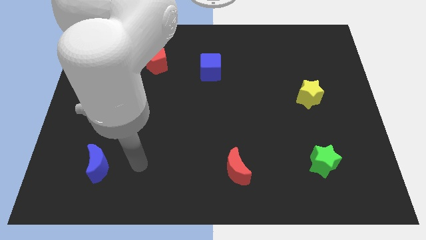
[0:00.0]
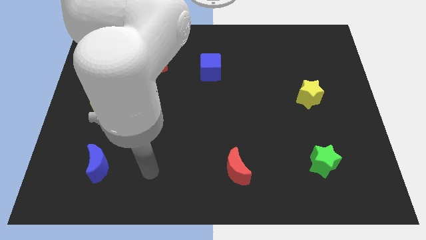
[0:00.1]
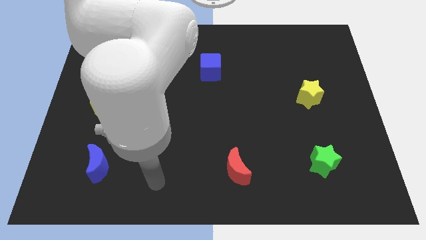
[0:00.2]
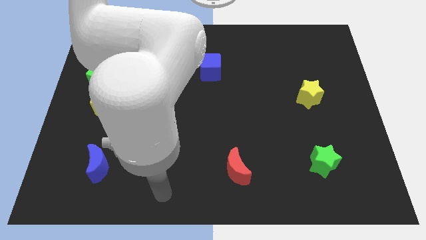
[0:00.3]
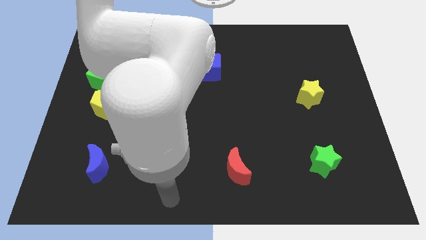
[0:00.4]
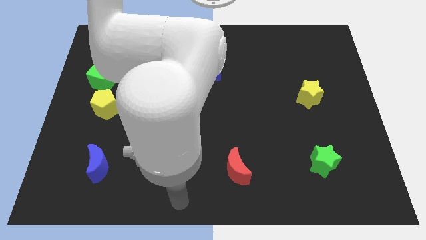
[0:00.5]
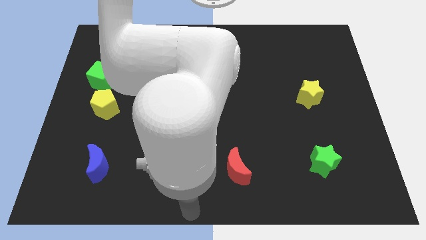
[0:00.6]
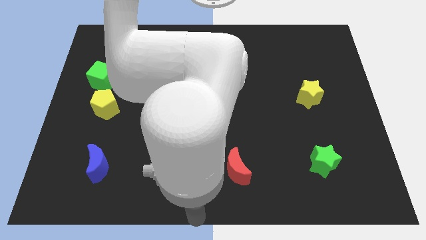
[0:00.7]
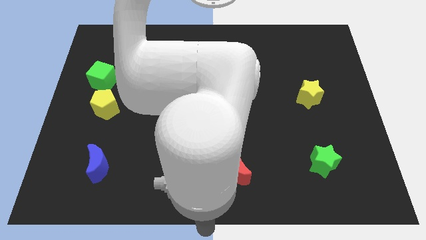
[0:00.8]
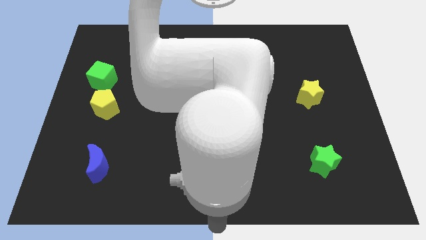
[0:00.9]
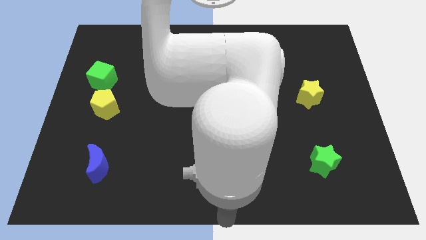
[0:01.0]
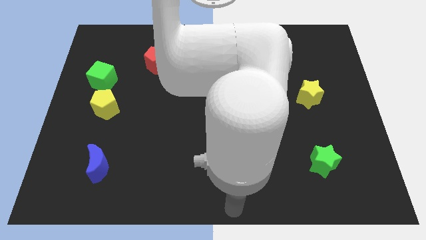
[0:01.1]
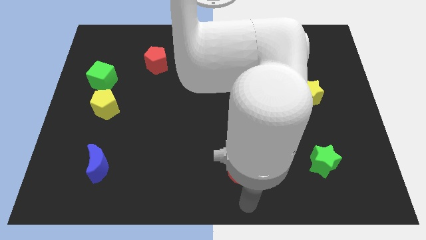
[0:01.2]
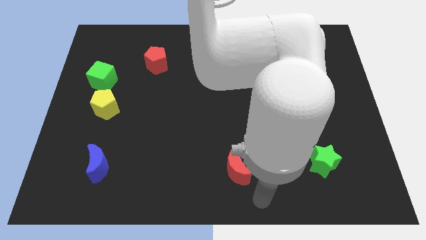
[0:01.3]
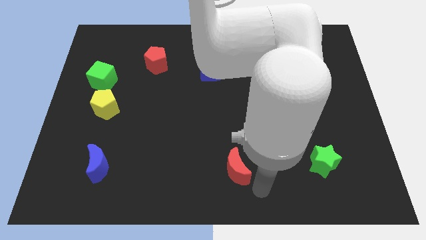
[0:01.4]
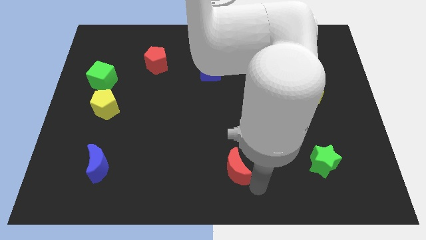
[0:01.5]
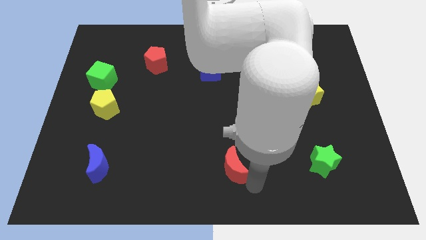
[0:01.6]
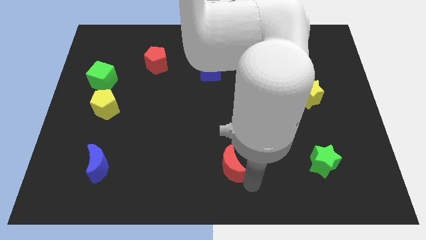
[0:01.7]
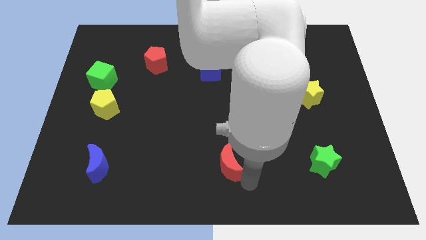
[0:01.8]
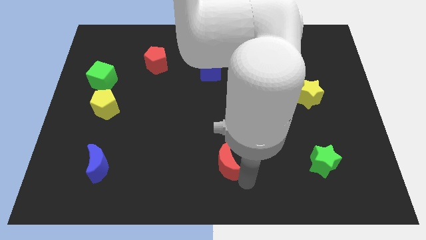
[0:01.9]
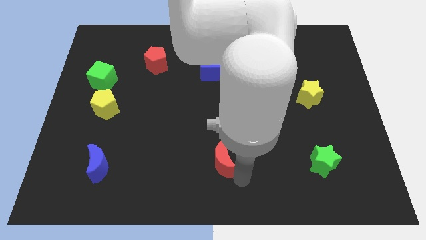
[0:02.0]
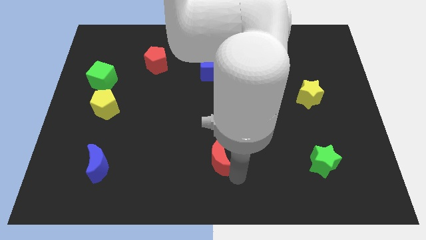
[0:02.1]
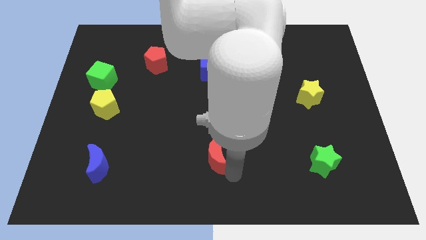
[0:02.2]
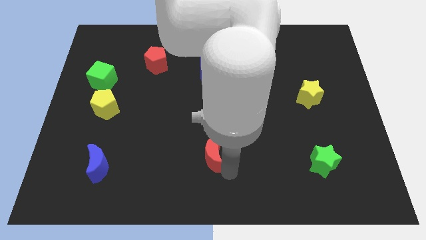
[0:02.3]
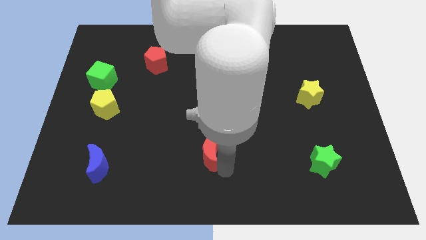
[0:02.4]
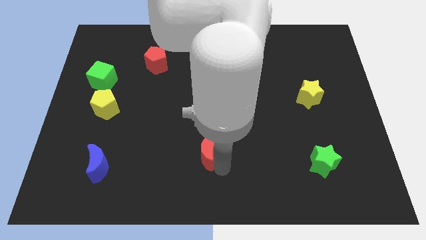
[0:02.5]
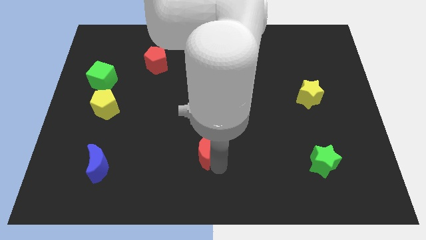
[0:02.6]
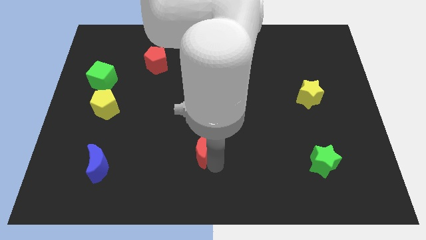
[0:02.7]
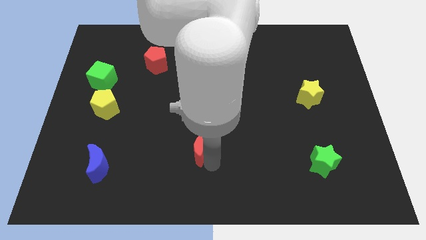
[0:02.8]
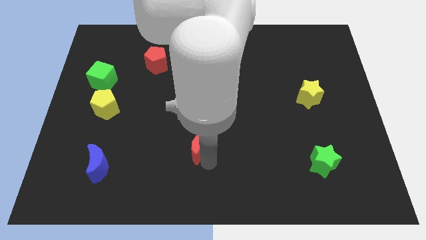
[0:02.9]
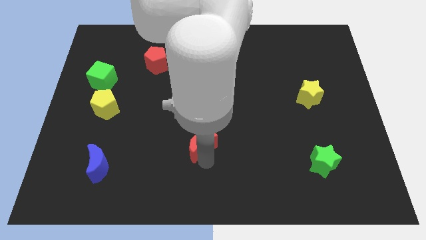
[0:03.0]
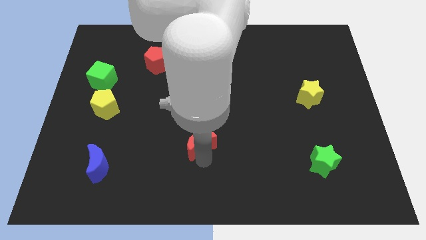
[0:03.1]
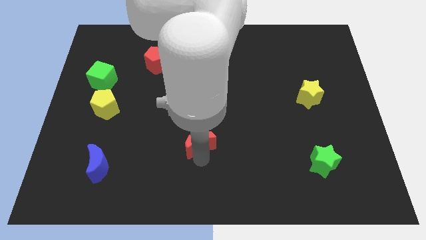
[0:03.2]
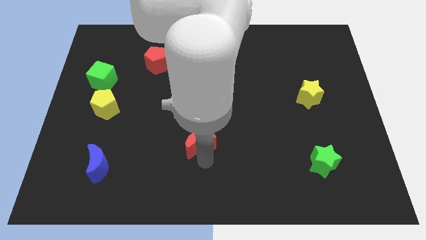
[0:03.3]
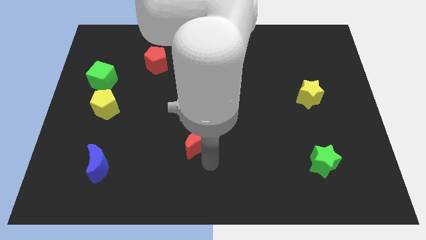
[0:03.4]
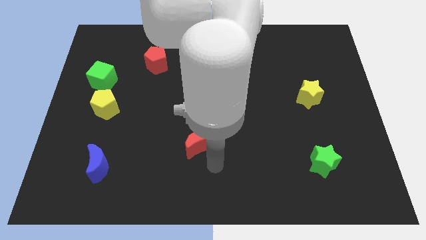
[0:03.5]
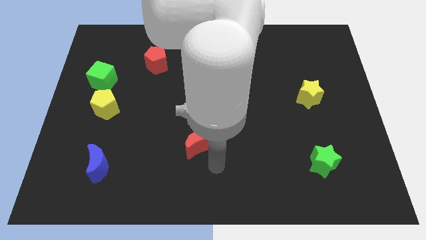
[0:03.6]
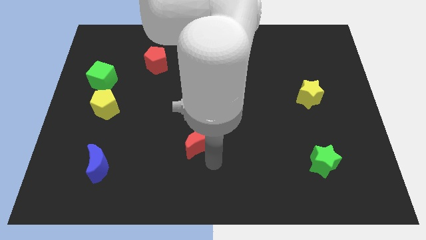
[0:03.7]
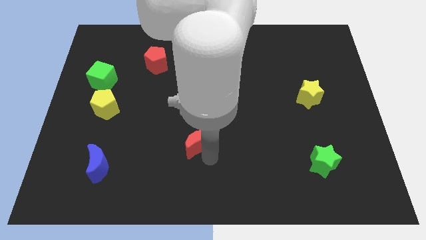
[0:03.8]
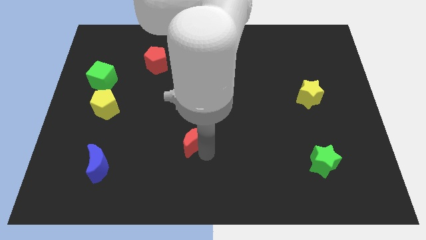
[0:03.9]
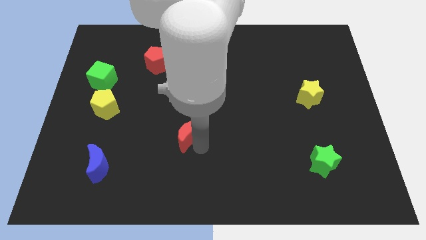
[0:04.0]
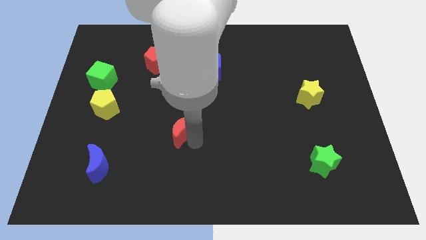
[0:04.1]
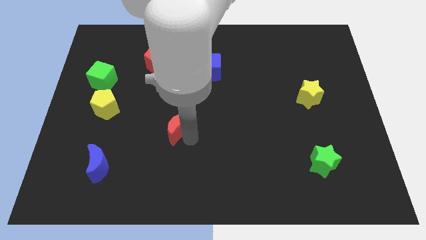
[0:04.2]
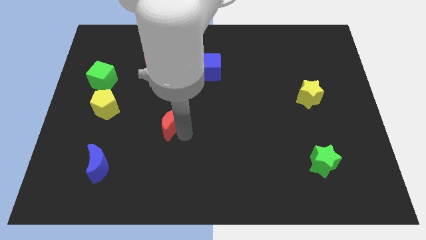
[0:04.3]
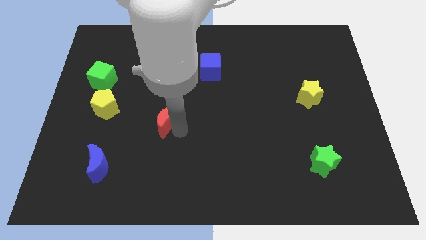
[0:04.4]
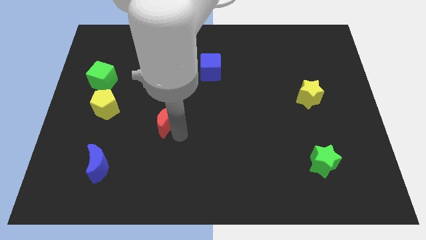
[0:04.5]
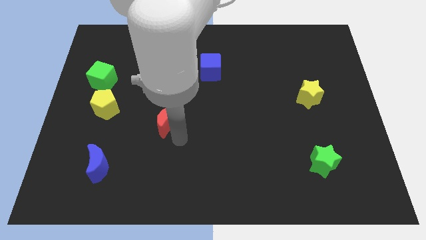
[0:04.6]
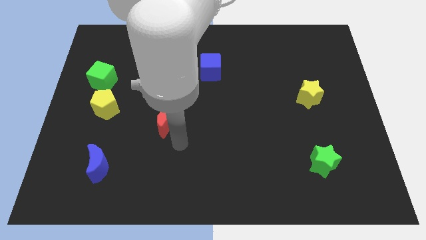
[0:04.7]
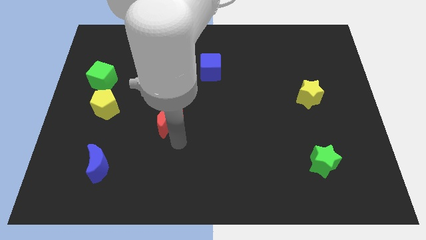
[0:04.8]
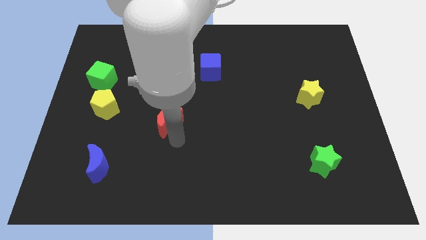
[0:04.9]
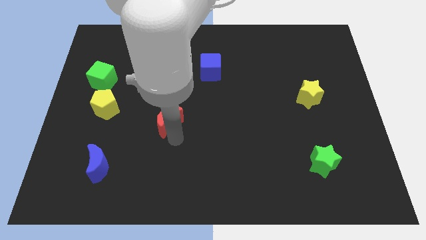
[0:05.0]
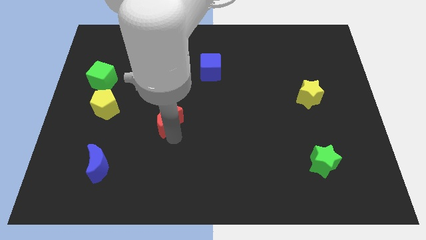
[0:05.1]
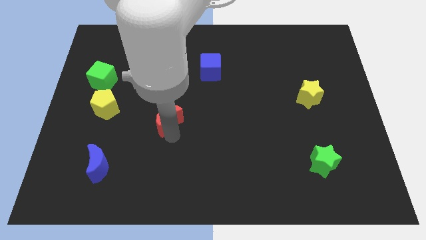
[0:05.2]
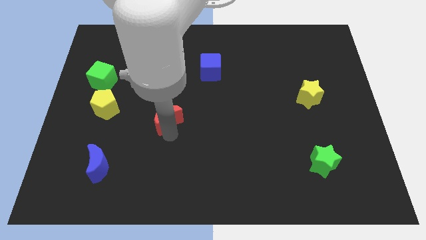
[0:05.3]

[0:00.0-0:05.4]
push the red moon up and left diagonally

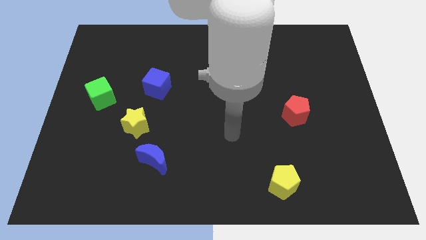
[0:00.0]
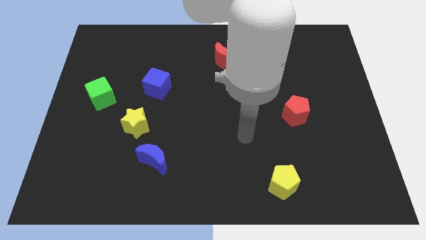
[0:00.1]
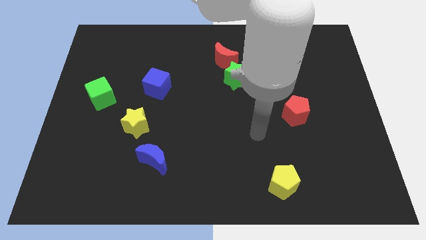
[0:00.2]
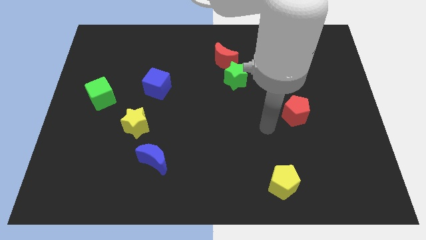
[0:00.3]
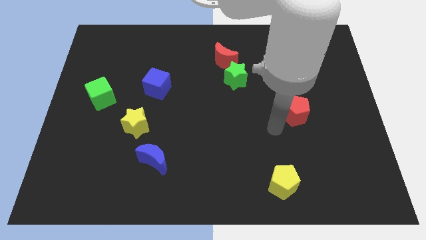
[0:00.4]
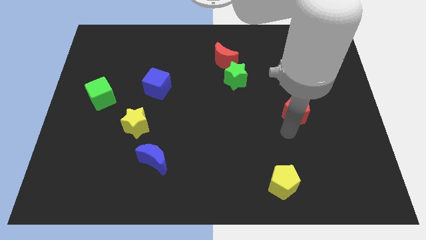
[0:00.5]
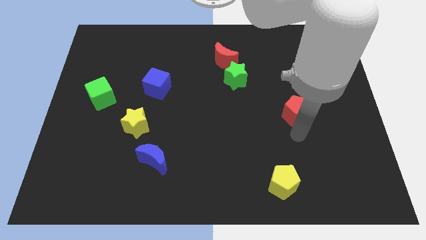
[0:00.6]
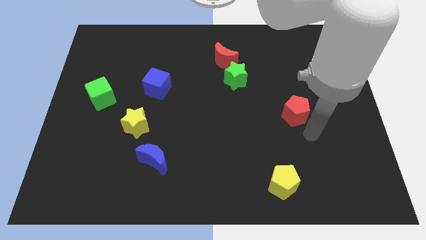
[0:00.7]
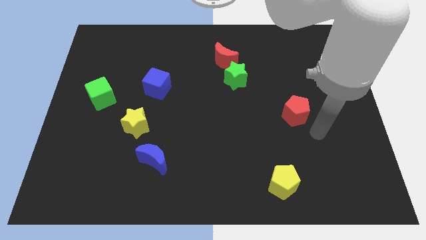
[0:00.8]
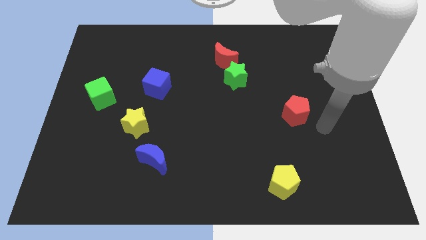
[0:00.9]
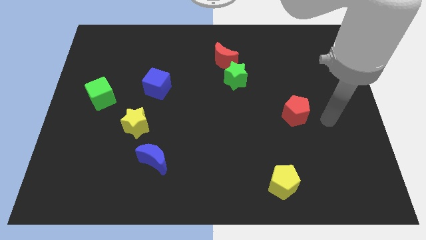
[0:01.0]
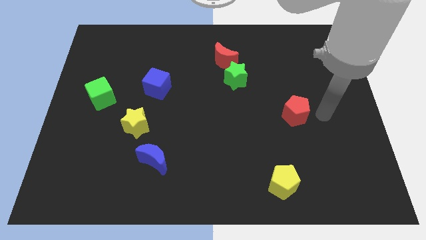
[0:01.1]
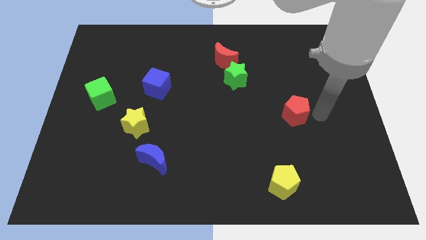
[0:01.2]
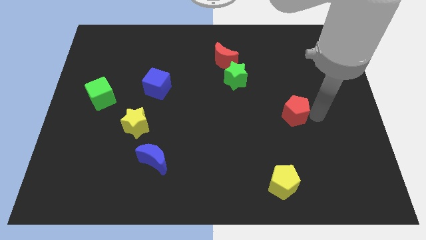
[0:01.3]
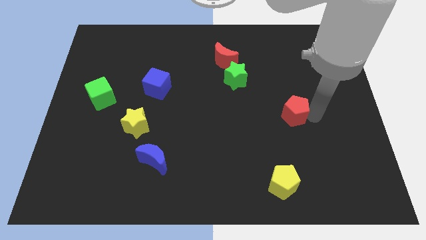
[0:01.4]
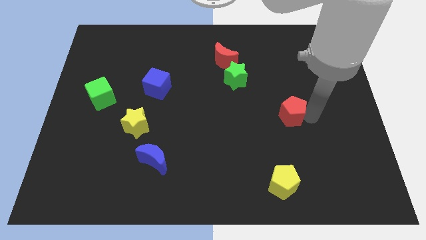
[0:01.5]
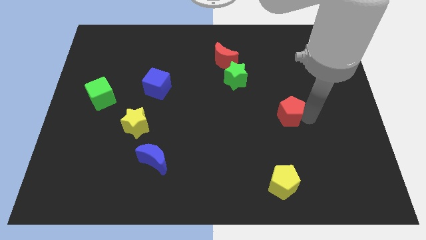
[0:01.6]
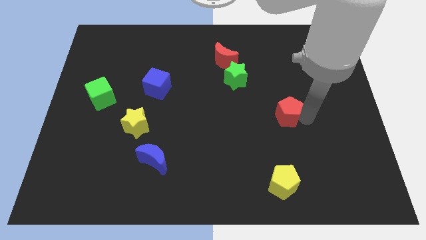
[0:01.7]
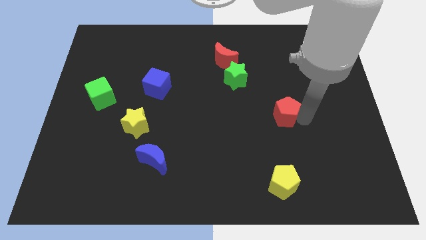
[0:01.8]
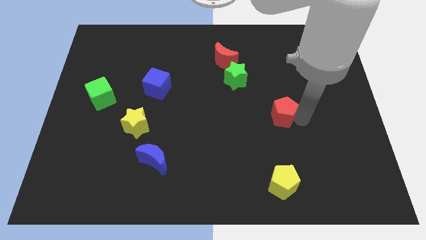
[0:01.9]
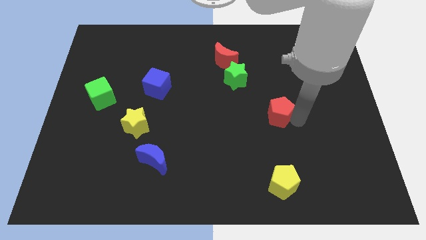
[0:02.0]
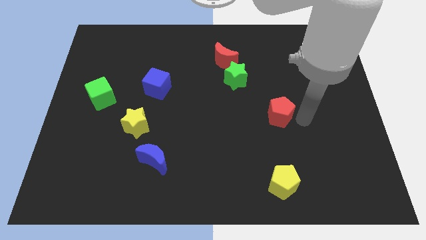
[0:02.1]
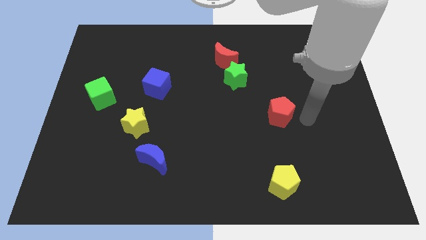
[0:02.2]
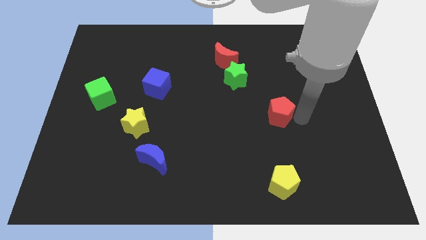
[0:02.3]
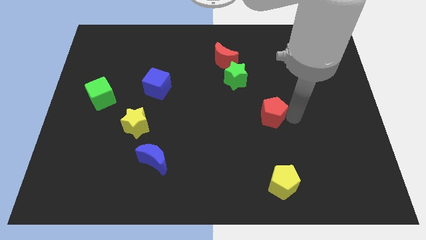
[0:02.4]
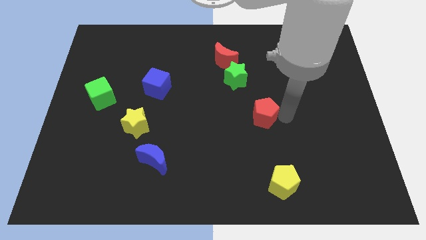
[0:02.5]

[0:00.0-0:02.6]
push the red pentagon a little to the left
